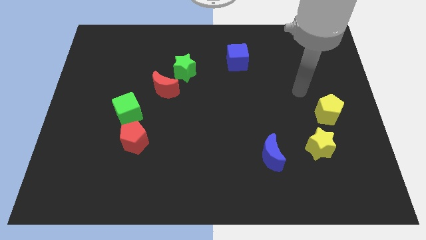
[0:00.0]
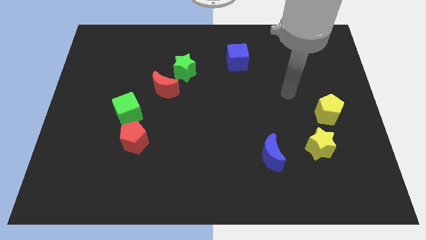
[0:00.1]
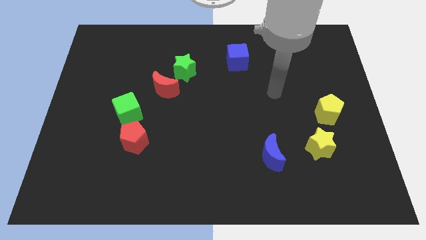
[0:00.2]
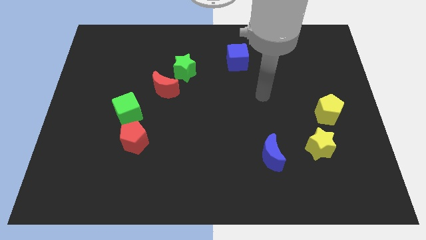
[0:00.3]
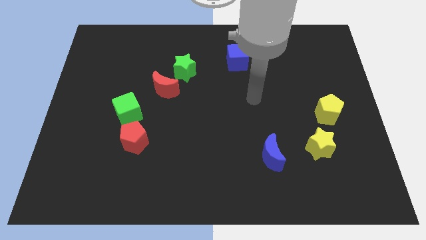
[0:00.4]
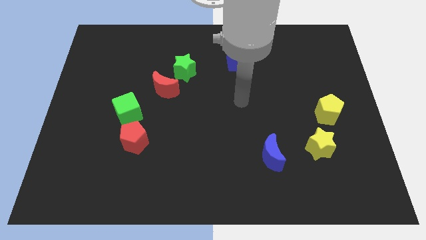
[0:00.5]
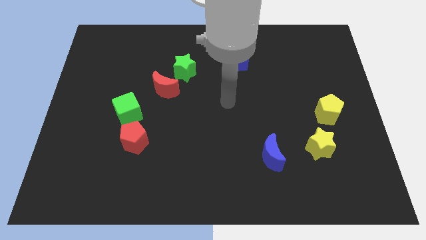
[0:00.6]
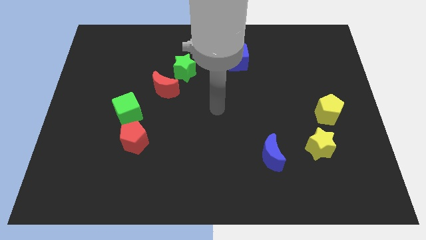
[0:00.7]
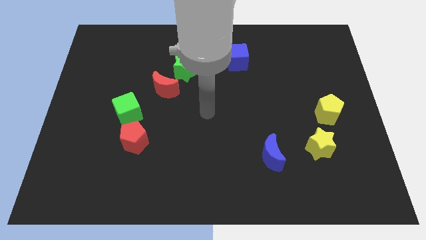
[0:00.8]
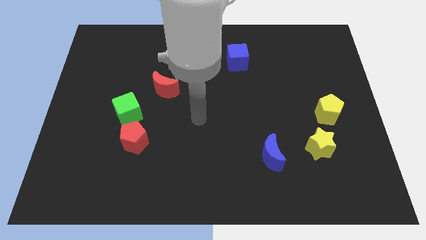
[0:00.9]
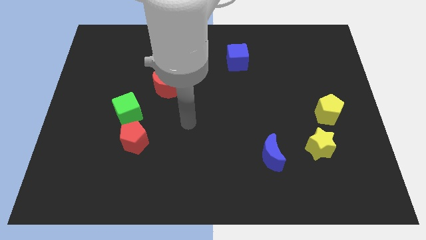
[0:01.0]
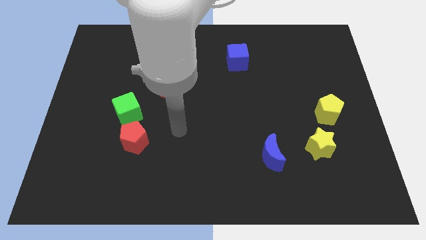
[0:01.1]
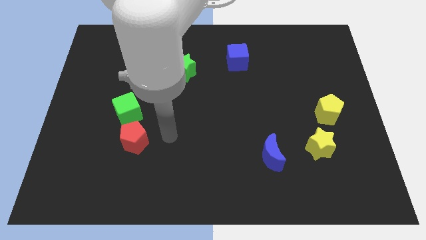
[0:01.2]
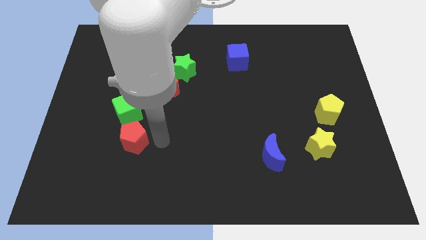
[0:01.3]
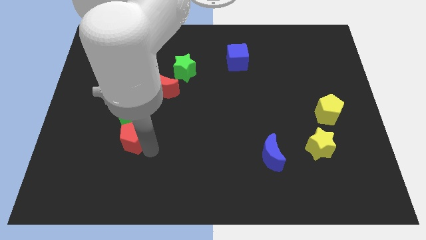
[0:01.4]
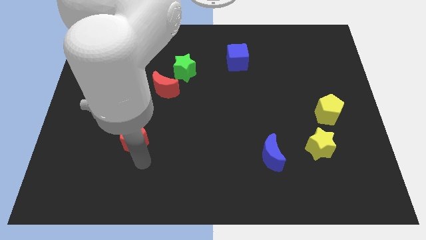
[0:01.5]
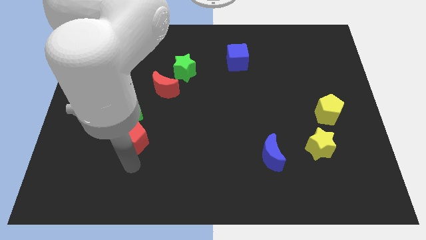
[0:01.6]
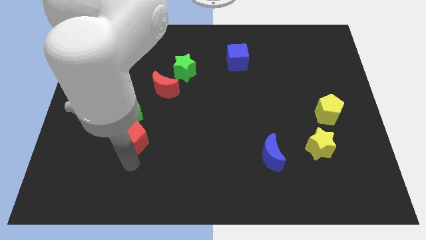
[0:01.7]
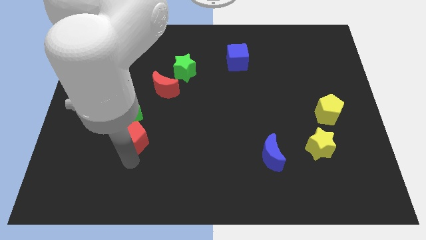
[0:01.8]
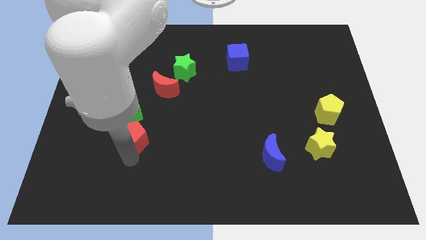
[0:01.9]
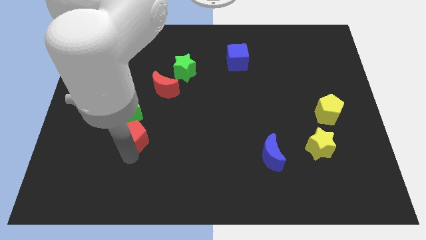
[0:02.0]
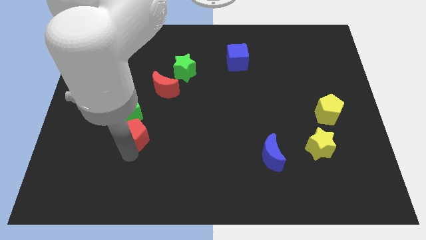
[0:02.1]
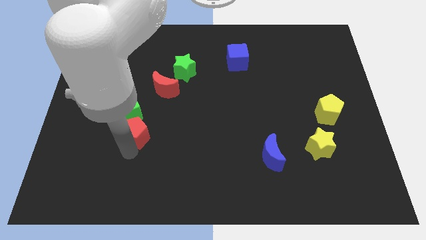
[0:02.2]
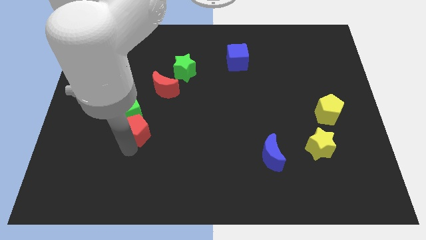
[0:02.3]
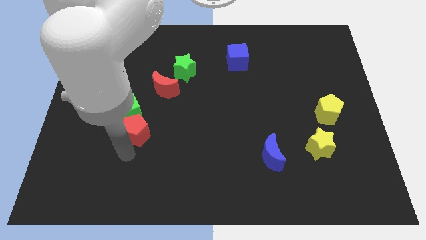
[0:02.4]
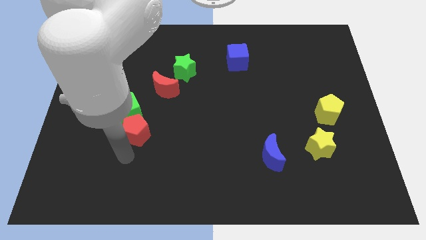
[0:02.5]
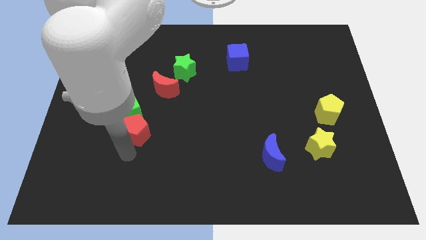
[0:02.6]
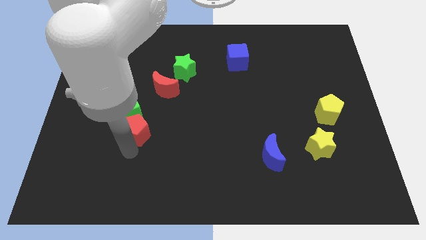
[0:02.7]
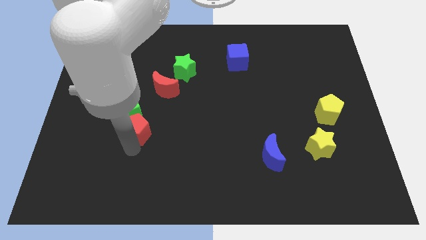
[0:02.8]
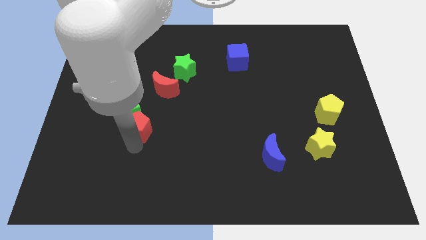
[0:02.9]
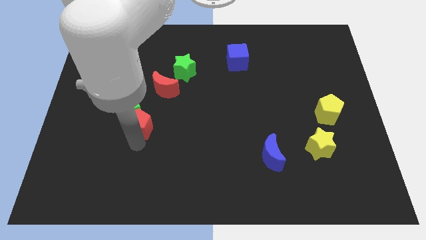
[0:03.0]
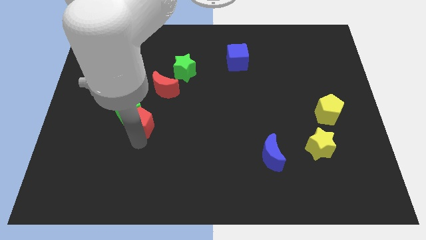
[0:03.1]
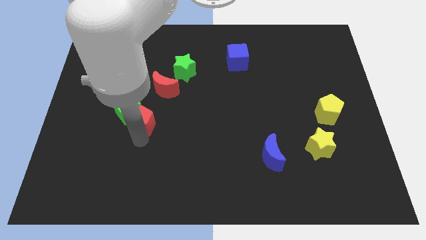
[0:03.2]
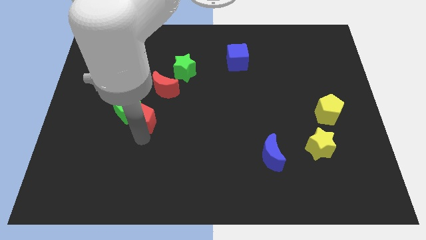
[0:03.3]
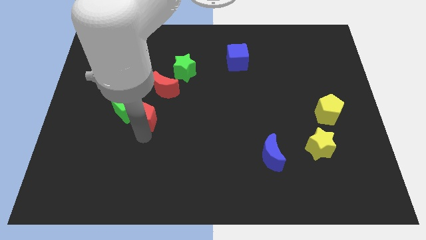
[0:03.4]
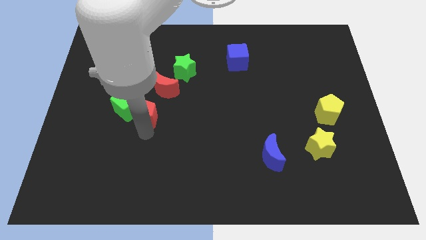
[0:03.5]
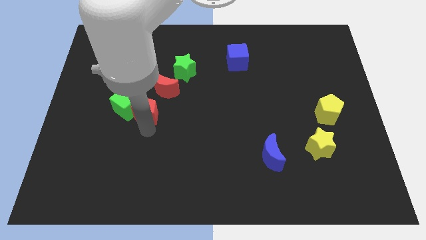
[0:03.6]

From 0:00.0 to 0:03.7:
slightly move the red pentagon up

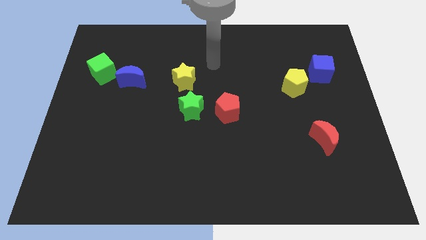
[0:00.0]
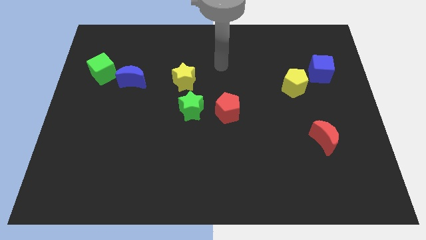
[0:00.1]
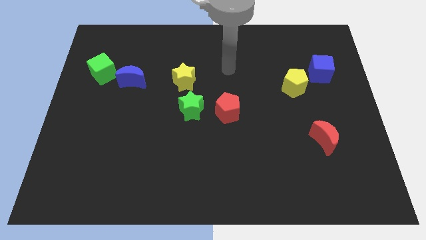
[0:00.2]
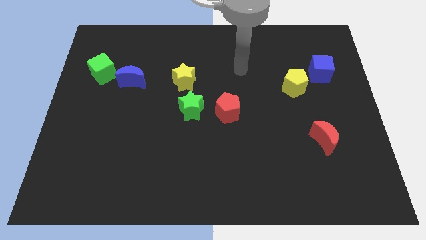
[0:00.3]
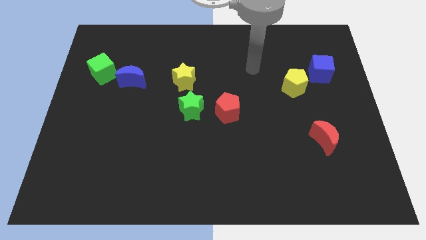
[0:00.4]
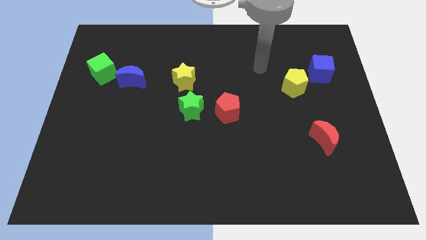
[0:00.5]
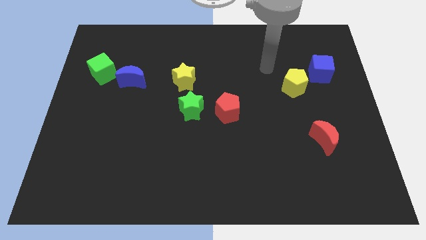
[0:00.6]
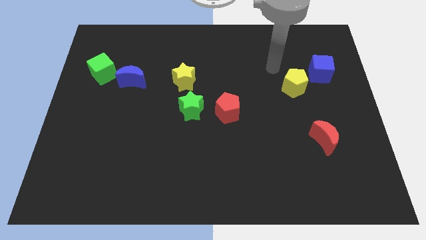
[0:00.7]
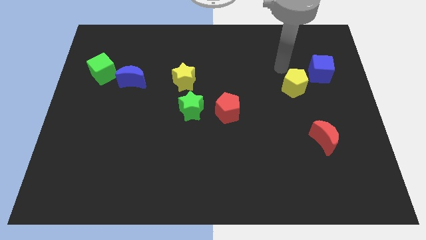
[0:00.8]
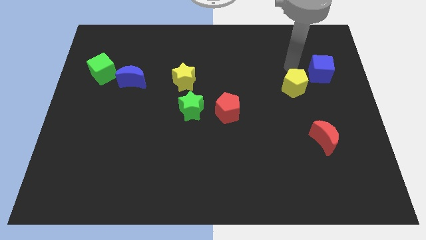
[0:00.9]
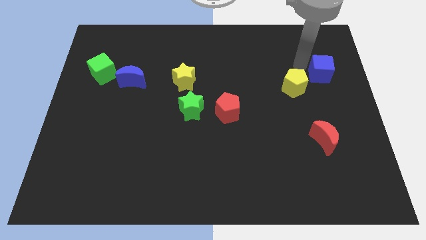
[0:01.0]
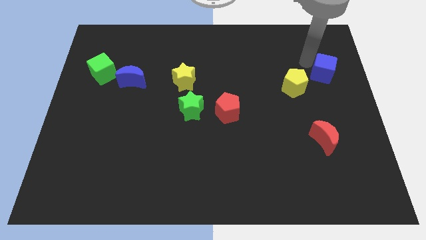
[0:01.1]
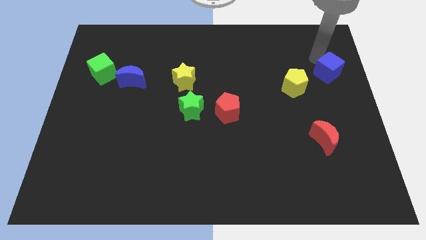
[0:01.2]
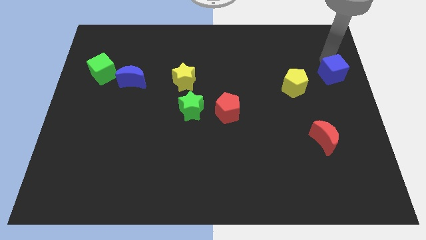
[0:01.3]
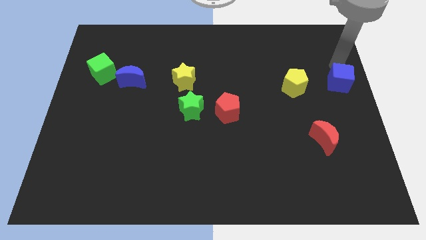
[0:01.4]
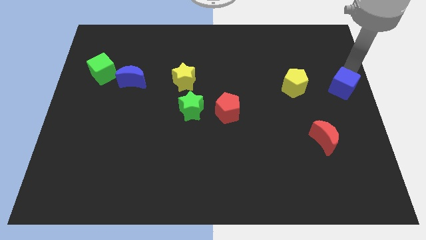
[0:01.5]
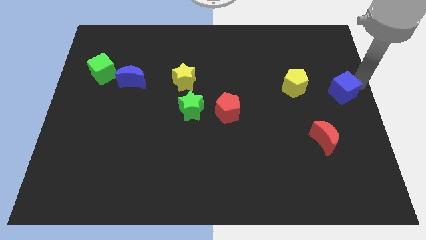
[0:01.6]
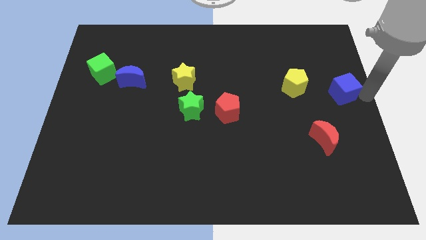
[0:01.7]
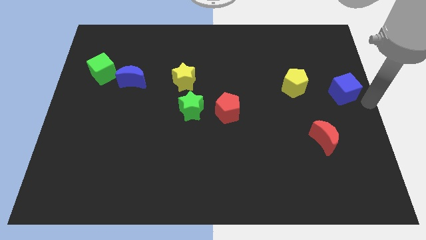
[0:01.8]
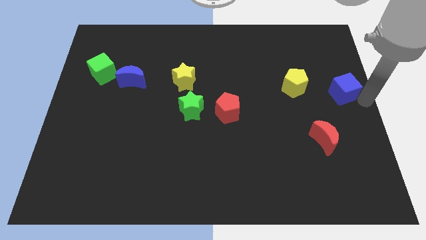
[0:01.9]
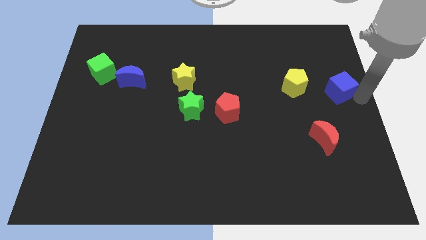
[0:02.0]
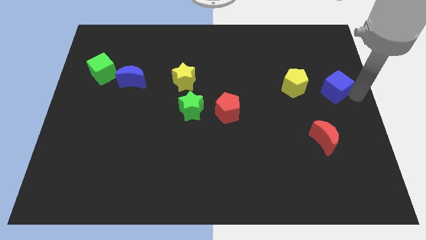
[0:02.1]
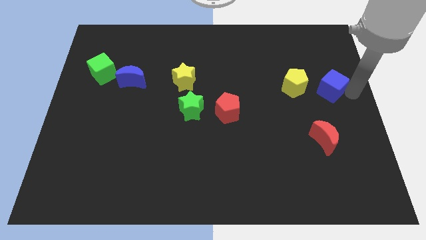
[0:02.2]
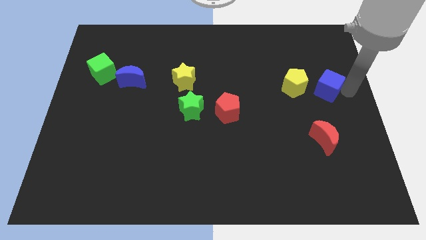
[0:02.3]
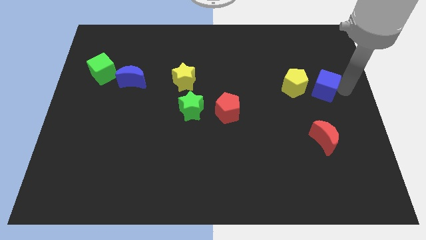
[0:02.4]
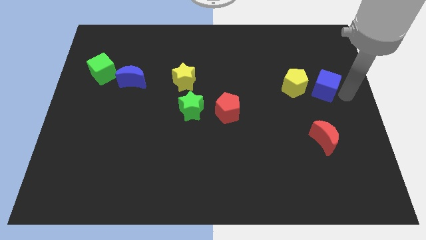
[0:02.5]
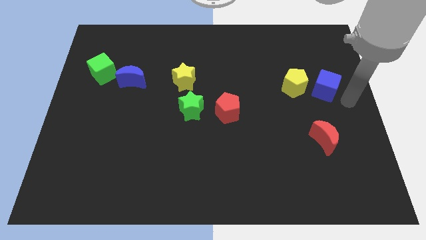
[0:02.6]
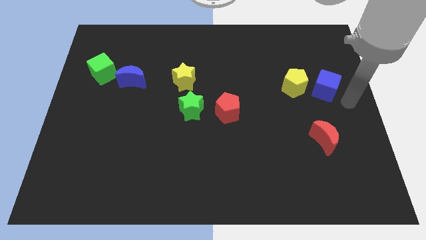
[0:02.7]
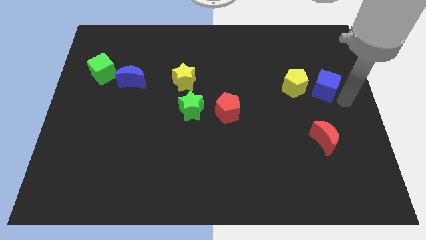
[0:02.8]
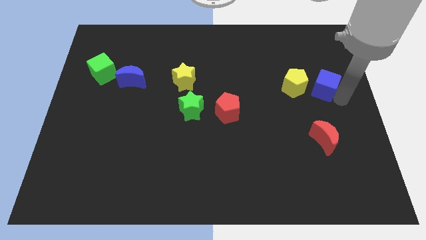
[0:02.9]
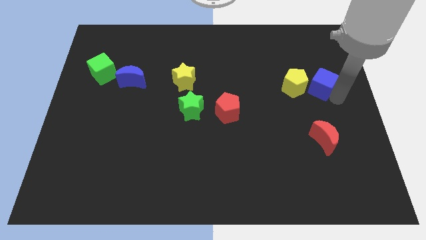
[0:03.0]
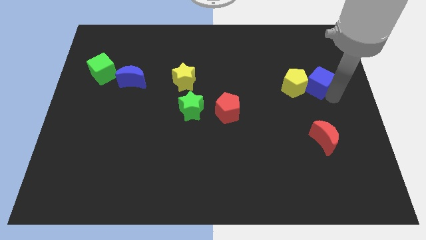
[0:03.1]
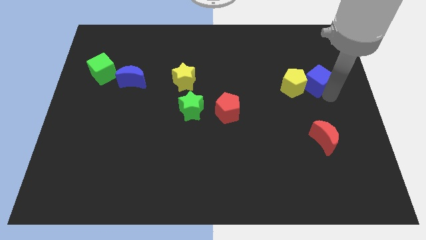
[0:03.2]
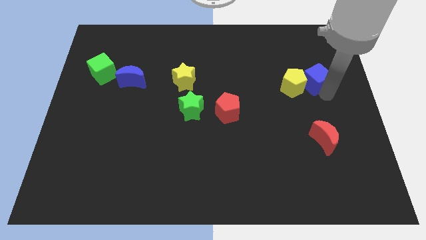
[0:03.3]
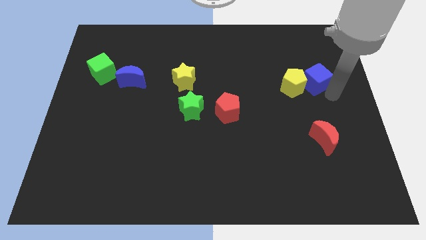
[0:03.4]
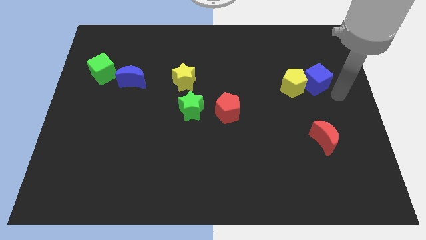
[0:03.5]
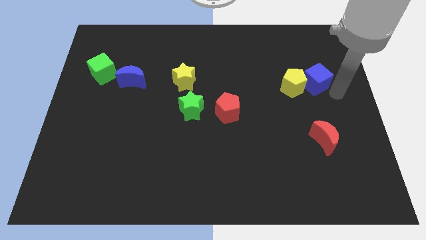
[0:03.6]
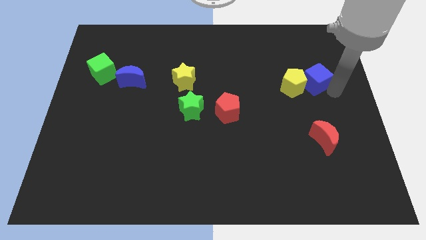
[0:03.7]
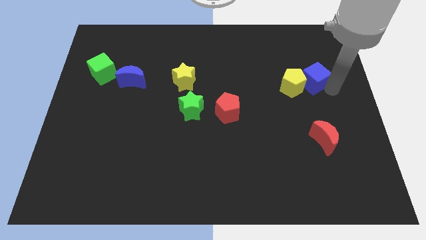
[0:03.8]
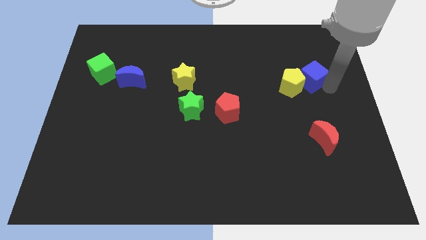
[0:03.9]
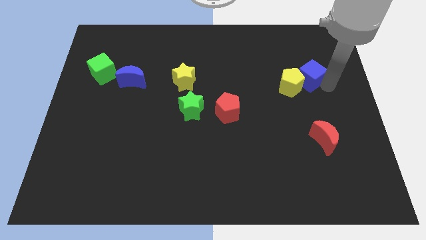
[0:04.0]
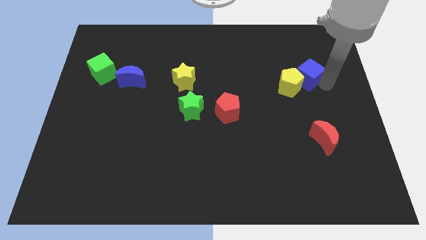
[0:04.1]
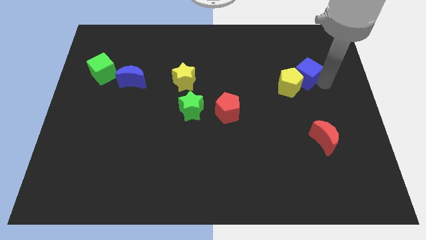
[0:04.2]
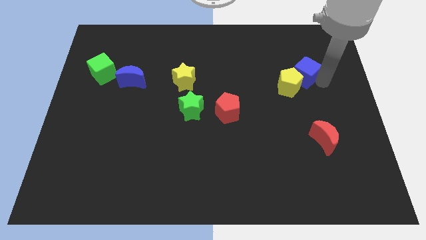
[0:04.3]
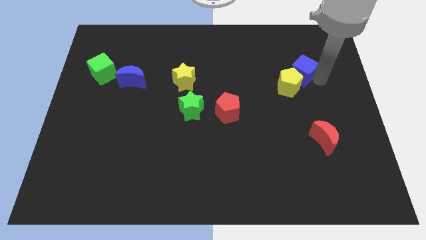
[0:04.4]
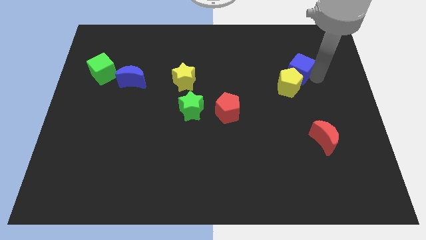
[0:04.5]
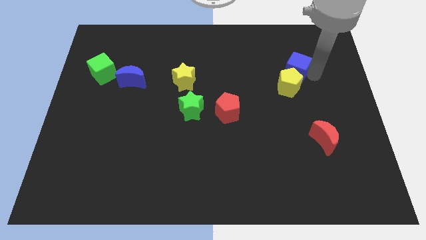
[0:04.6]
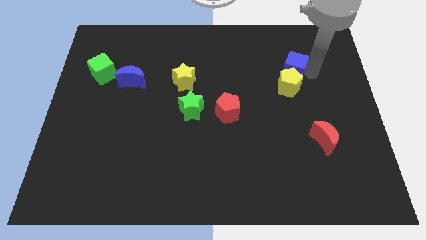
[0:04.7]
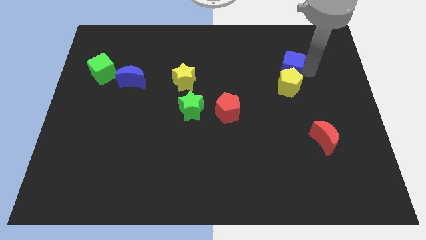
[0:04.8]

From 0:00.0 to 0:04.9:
move the blue cube a bit to the left
